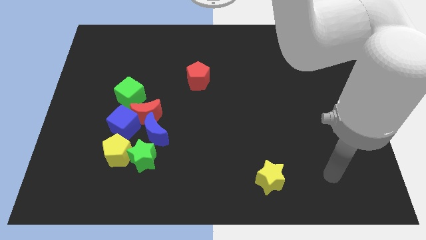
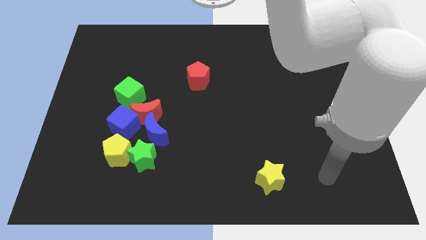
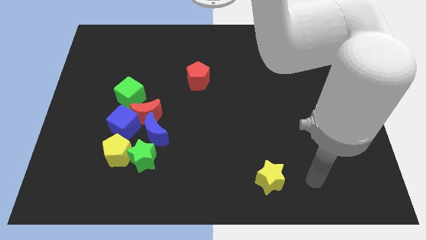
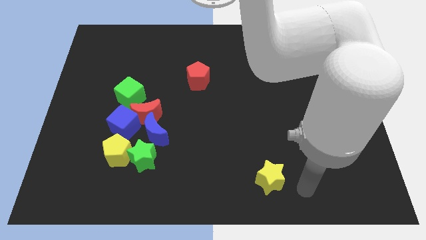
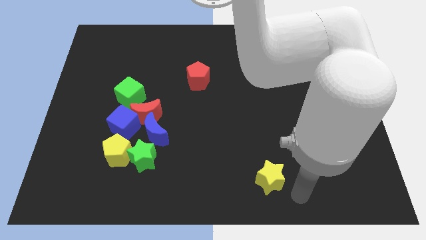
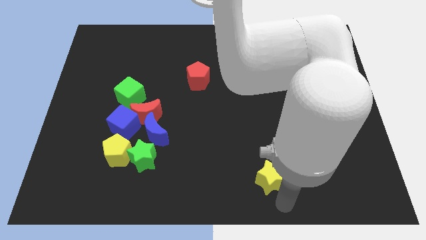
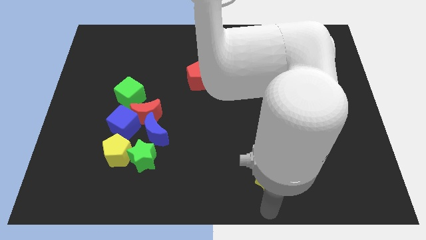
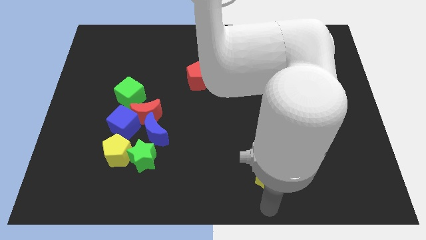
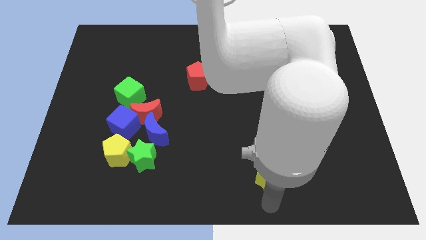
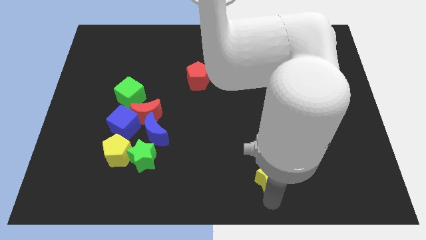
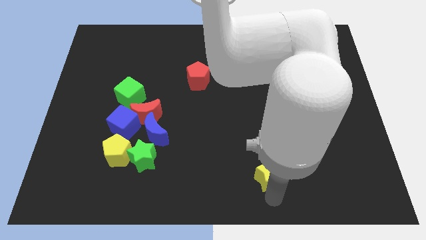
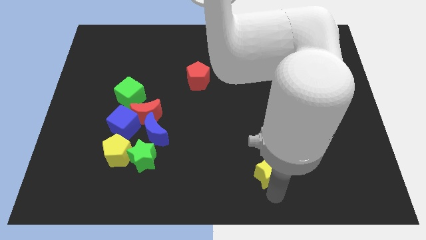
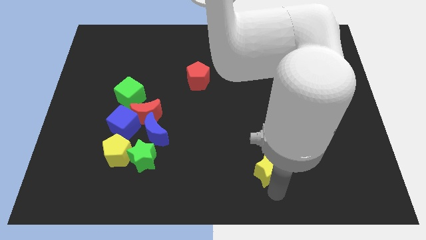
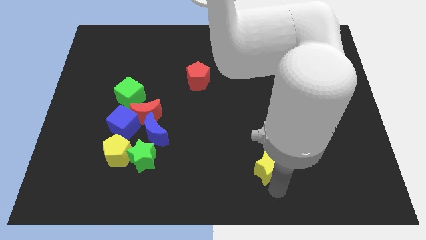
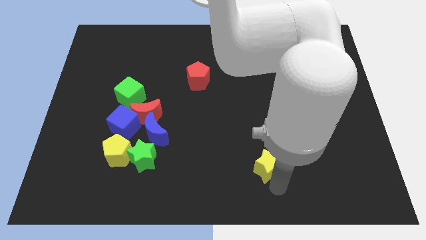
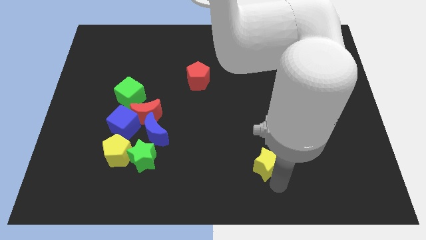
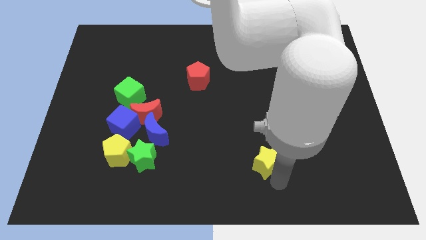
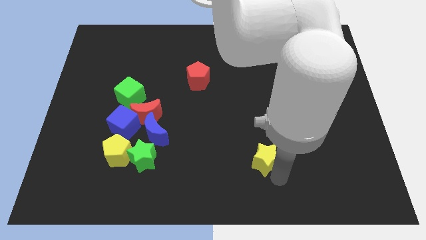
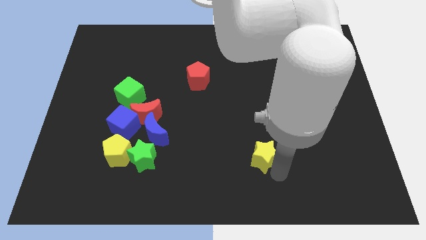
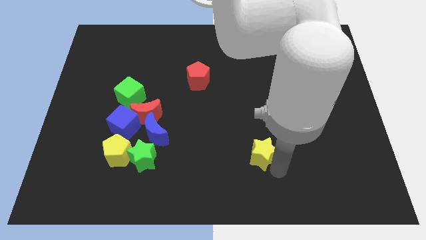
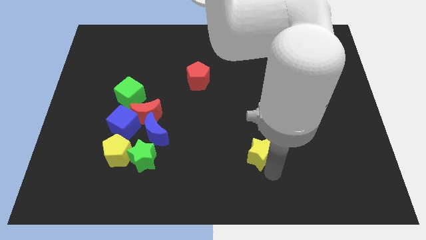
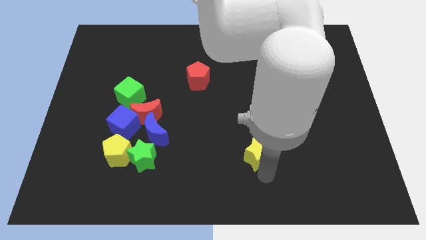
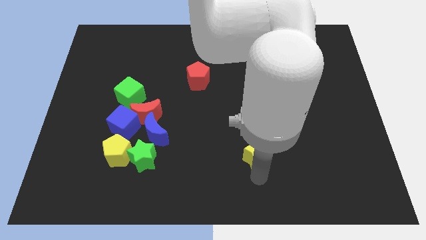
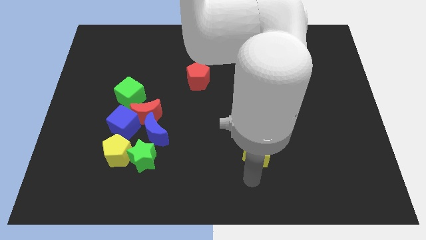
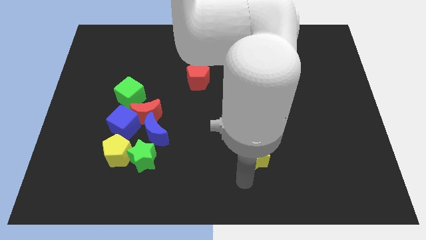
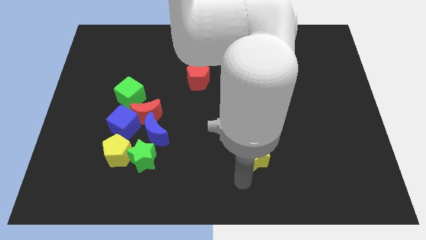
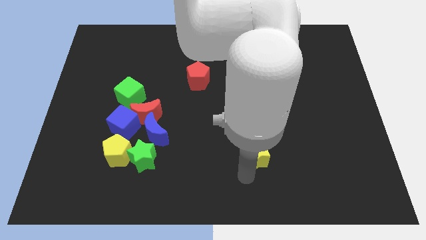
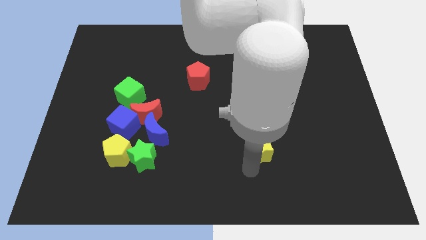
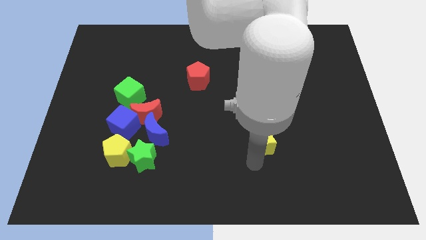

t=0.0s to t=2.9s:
push the yellow star somewhat upwards

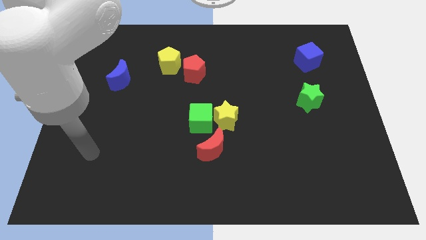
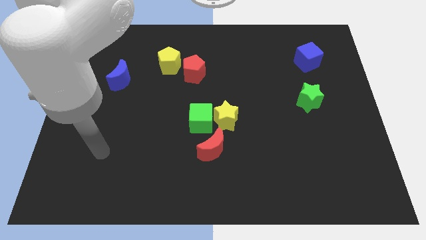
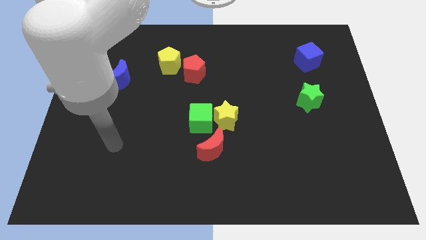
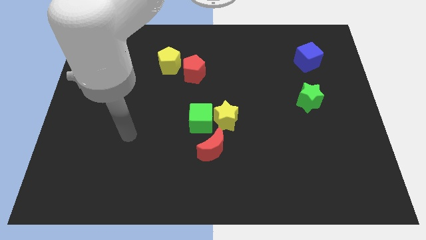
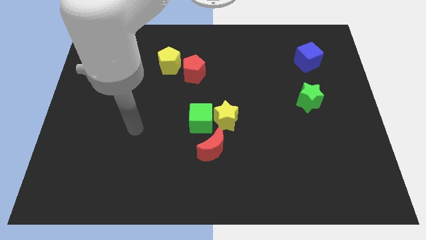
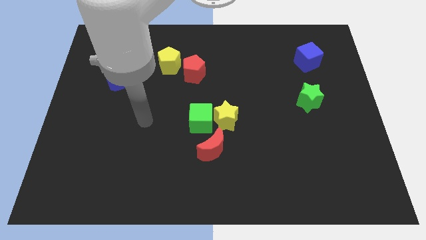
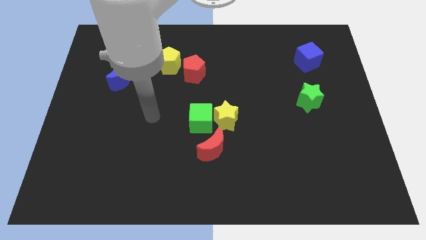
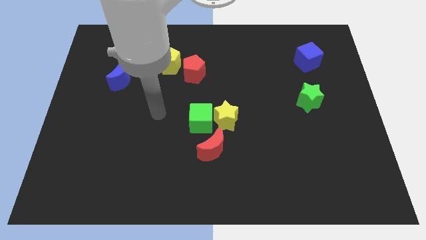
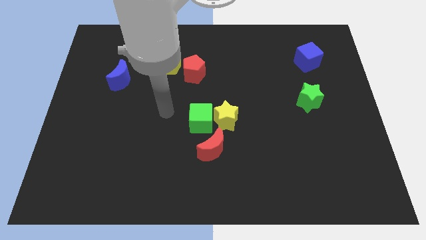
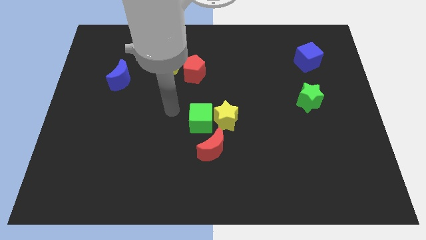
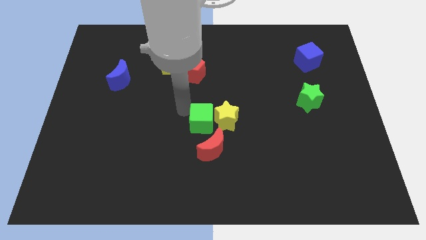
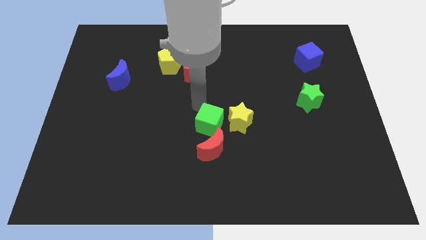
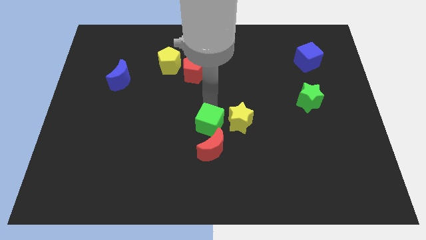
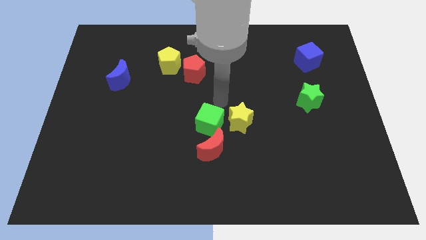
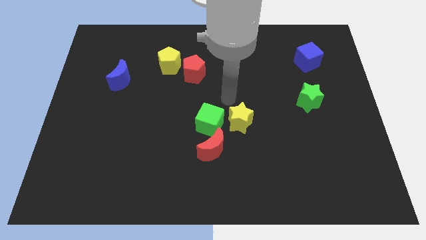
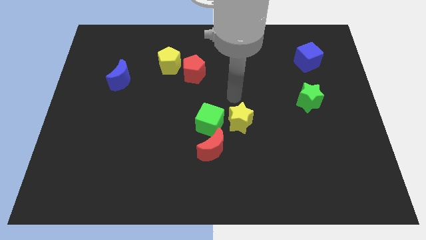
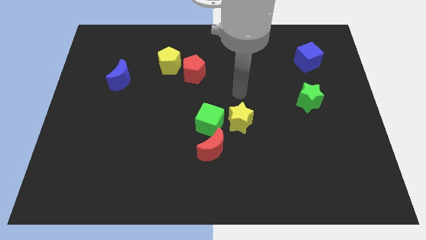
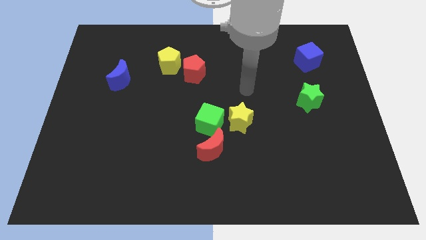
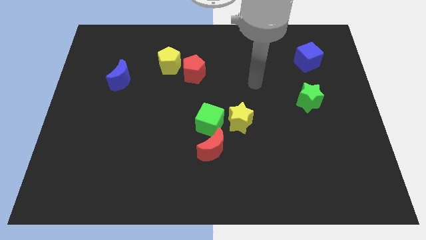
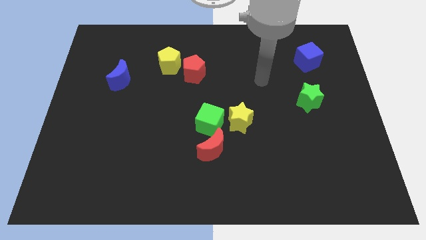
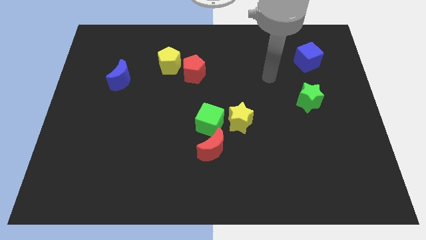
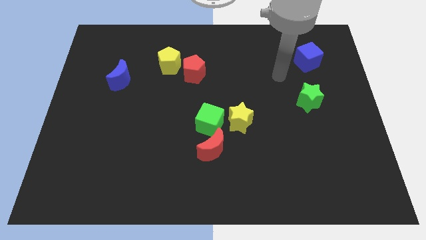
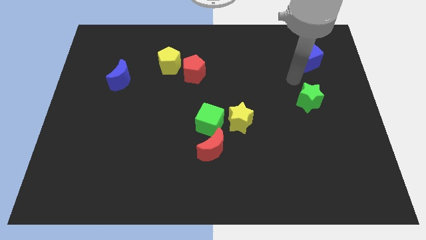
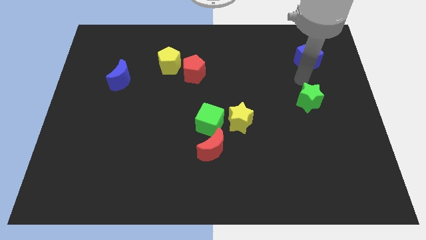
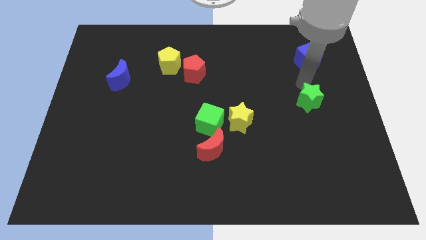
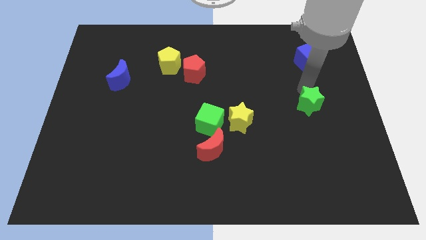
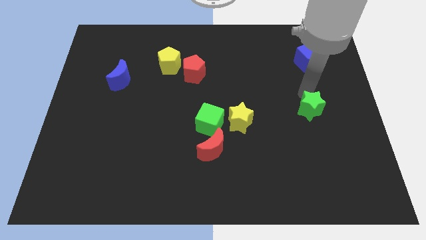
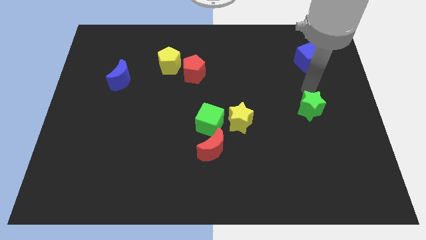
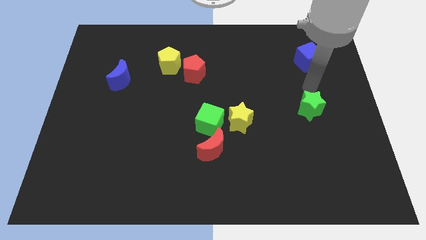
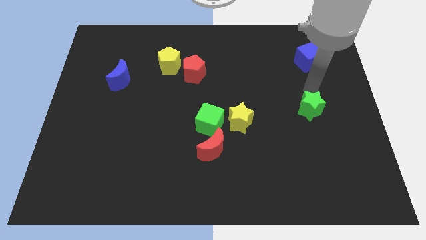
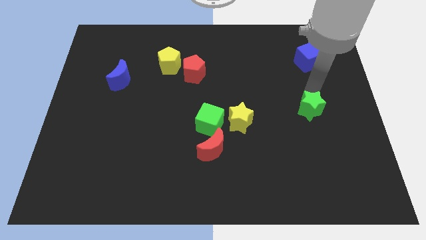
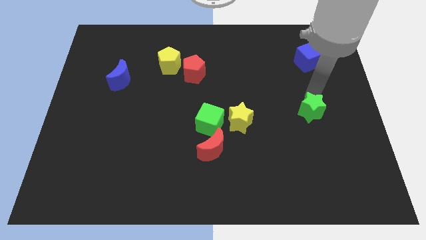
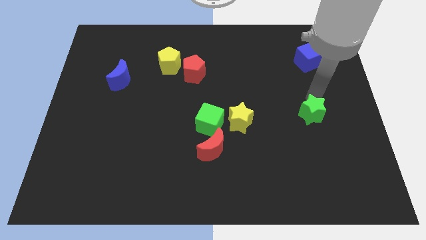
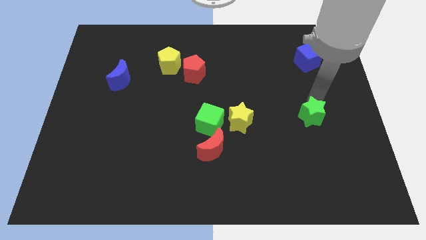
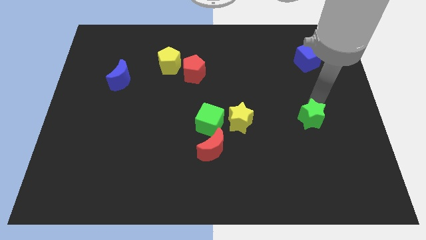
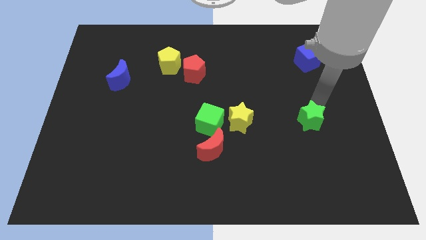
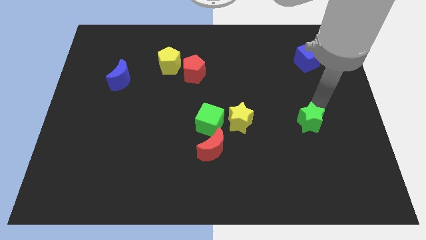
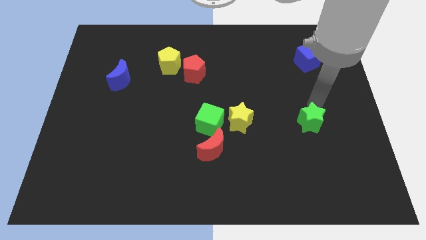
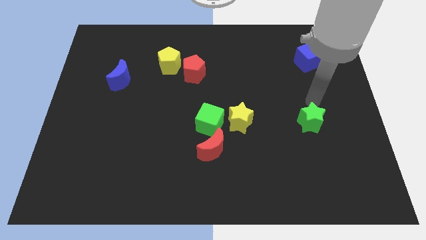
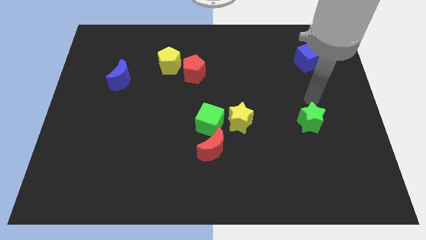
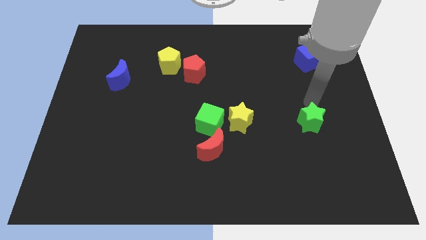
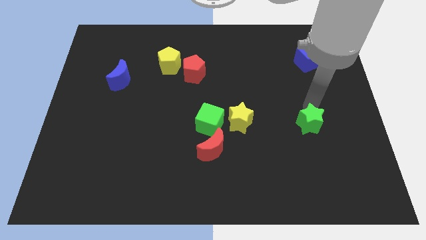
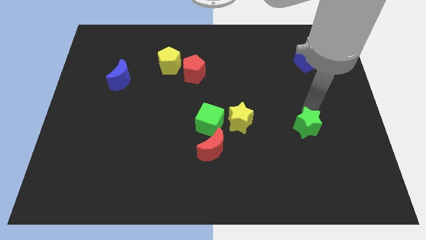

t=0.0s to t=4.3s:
move the green star downwards a little

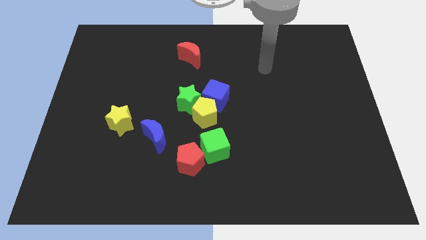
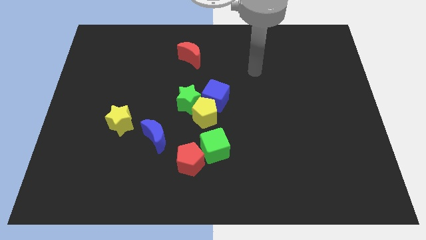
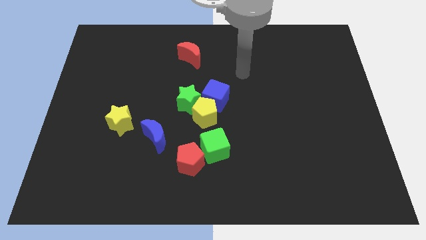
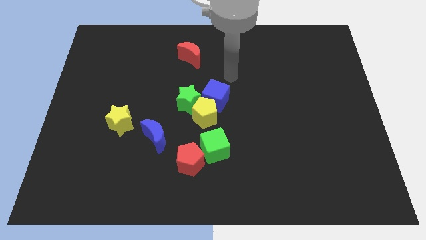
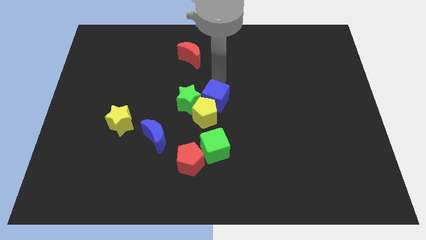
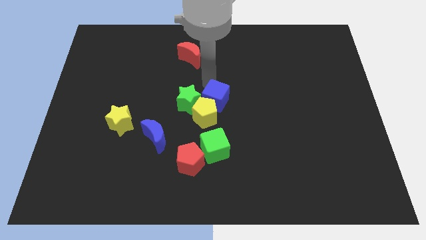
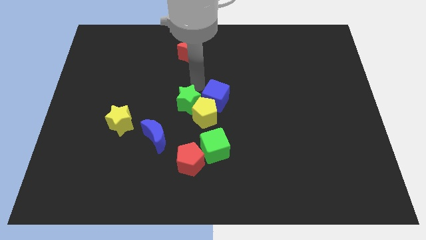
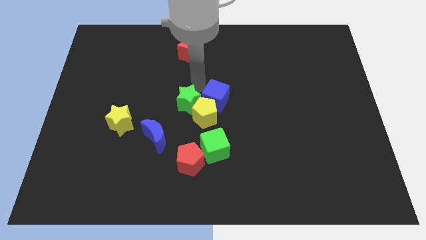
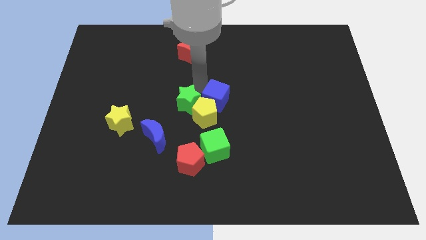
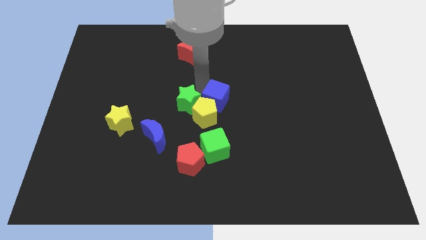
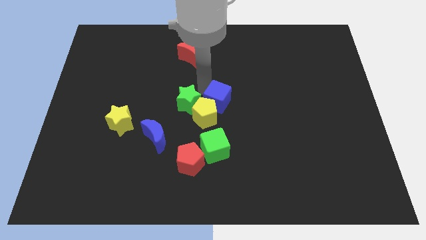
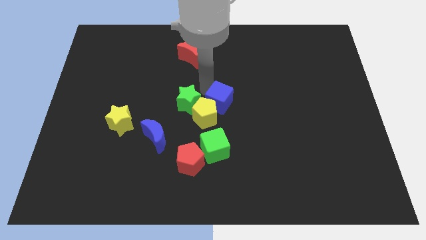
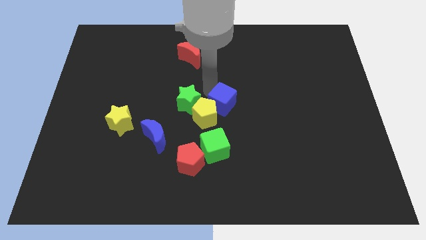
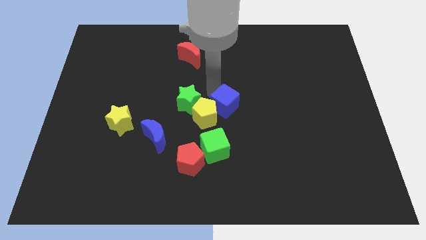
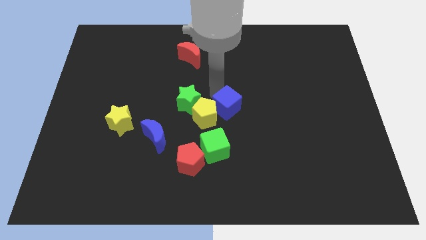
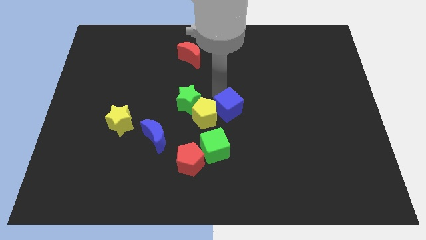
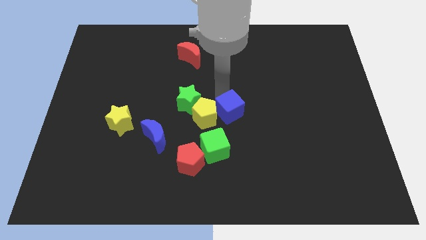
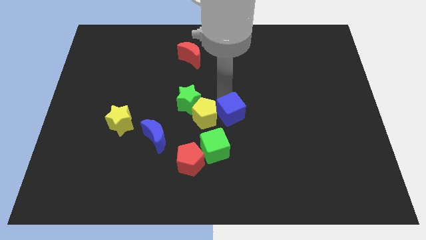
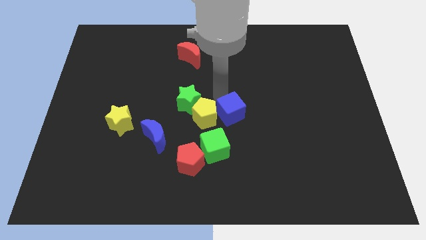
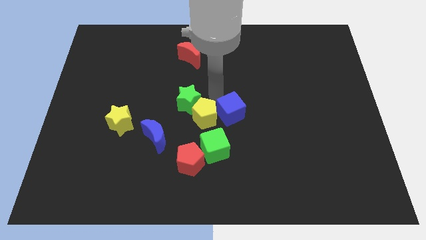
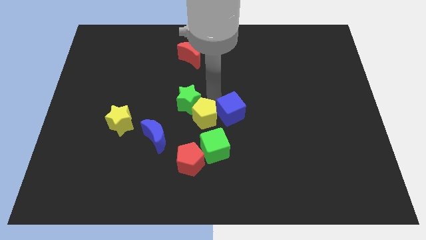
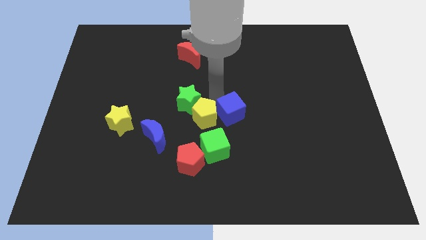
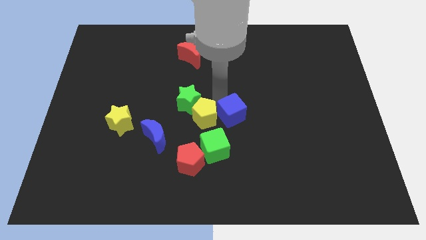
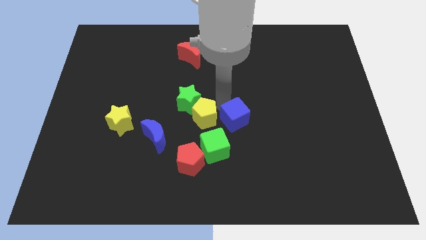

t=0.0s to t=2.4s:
slightly slide the blue cube downwards and to the right
